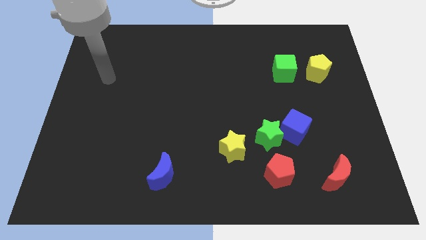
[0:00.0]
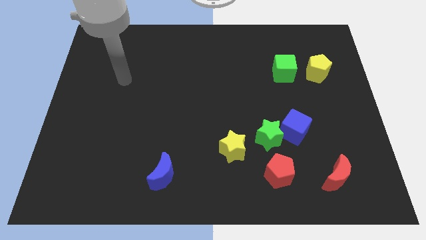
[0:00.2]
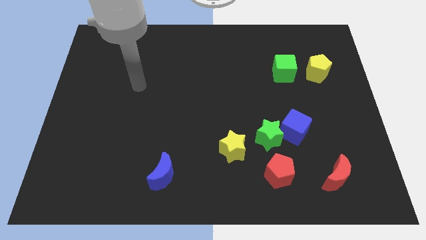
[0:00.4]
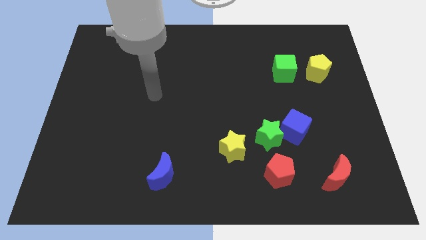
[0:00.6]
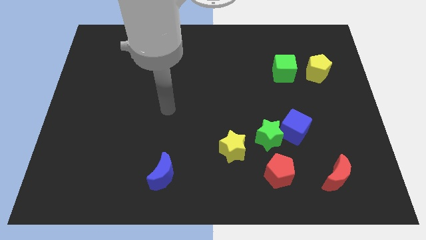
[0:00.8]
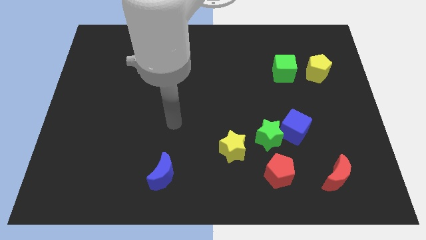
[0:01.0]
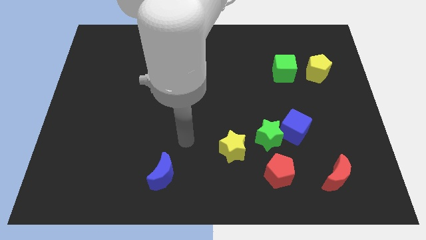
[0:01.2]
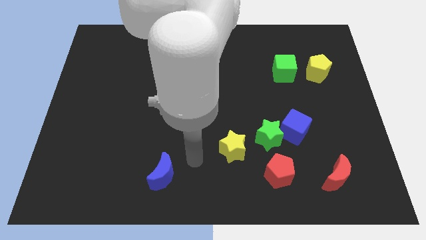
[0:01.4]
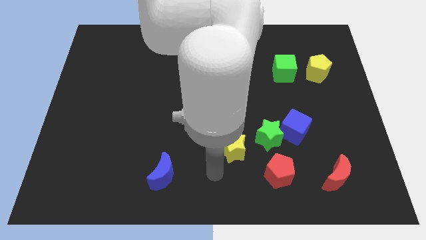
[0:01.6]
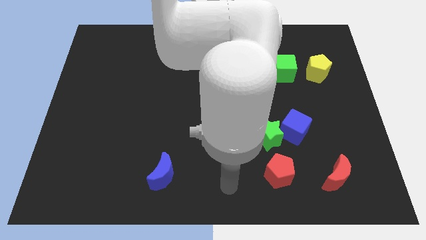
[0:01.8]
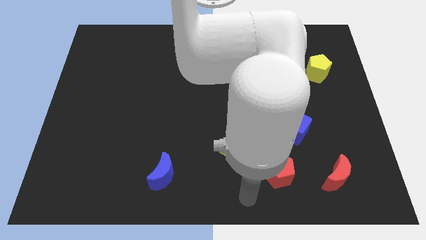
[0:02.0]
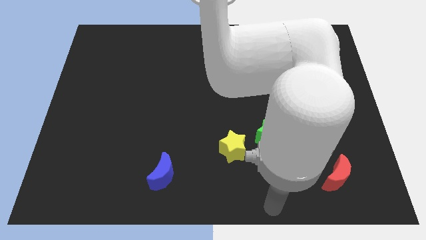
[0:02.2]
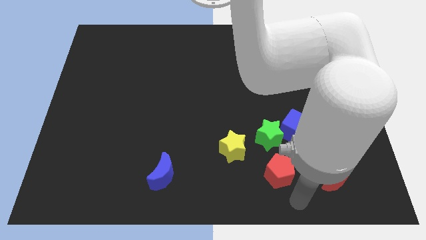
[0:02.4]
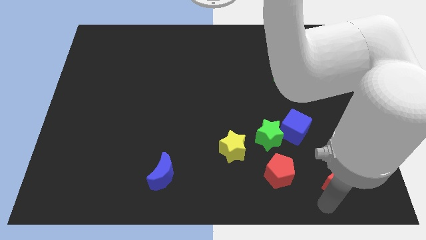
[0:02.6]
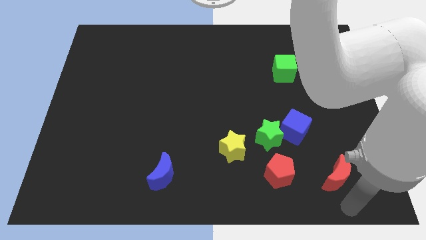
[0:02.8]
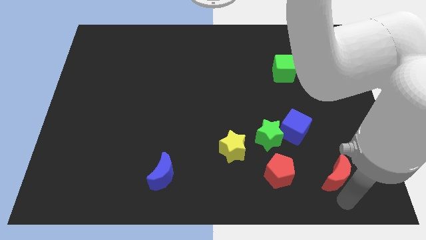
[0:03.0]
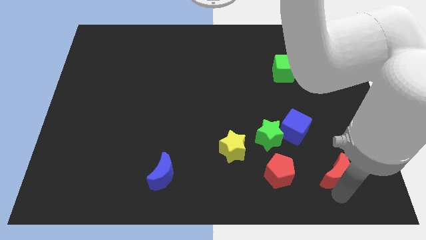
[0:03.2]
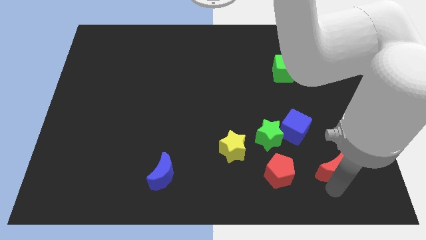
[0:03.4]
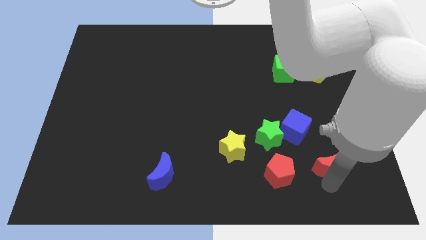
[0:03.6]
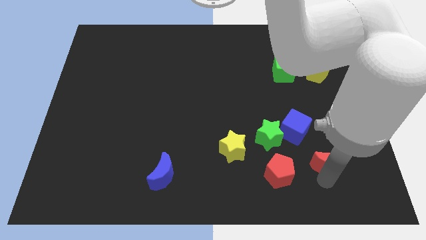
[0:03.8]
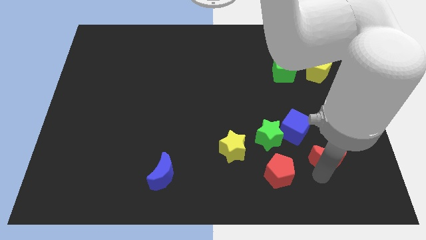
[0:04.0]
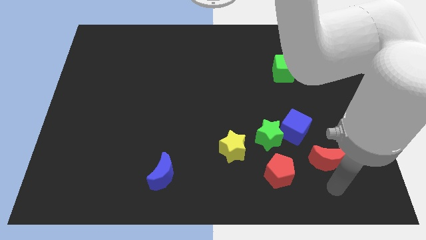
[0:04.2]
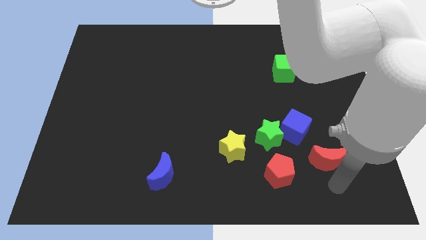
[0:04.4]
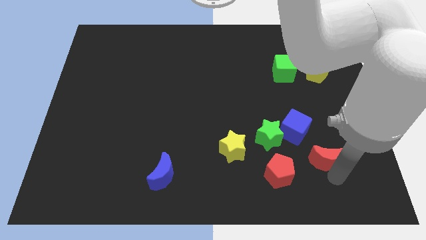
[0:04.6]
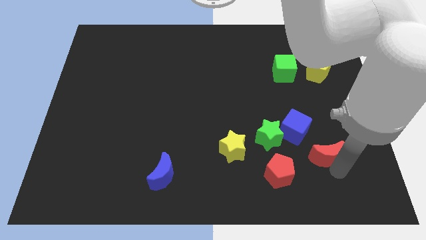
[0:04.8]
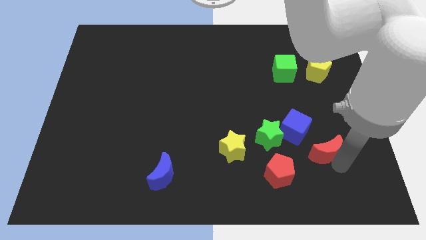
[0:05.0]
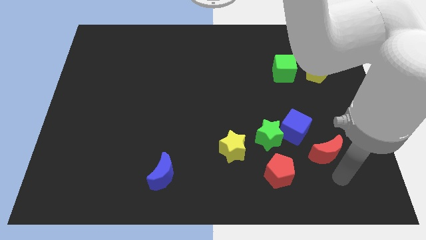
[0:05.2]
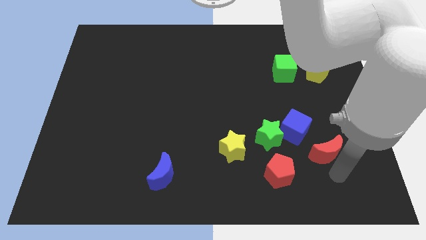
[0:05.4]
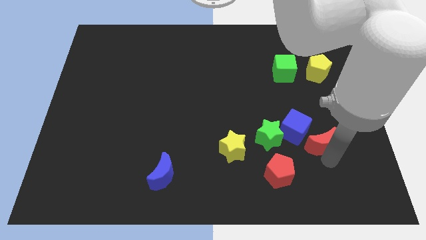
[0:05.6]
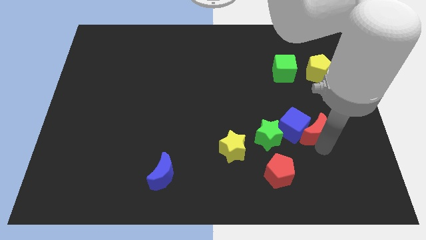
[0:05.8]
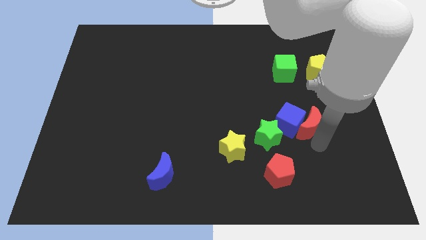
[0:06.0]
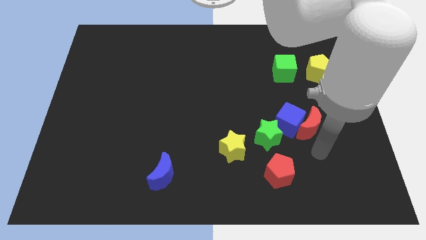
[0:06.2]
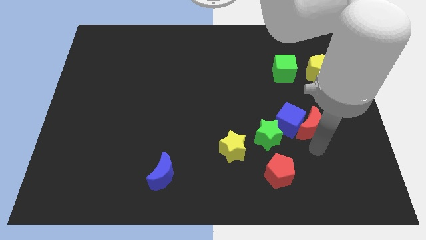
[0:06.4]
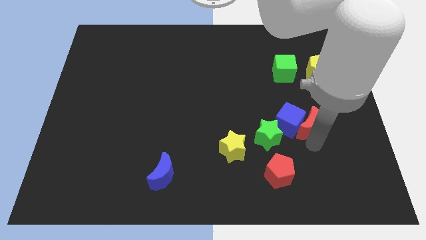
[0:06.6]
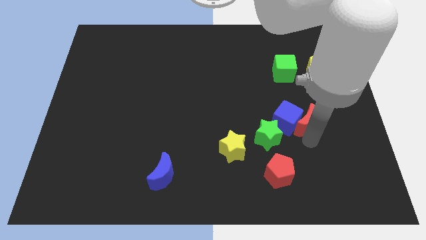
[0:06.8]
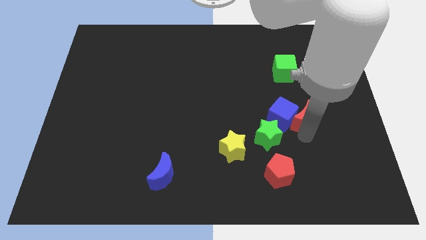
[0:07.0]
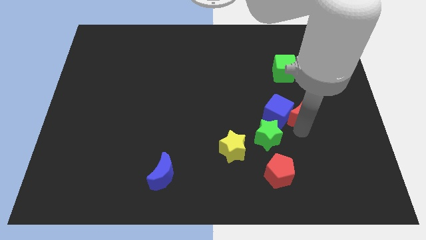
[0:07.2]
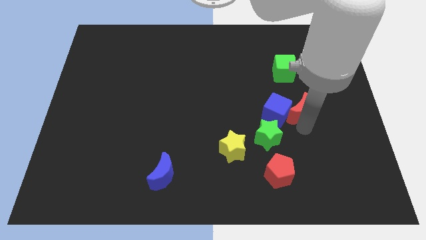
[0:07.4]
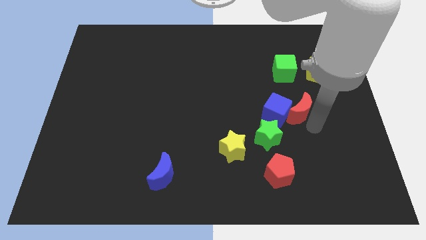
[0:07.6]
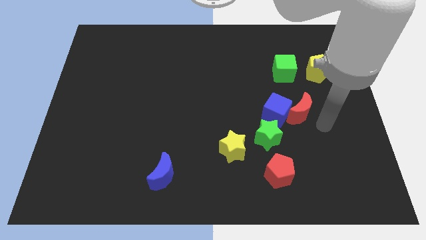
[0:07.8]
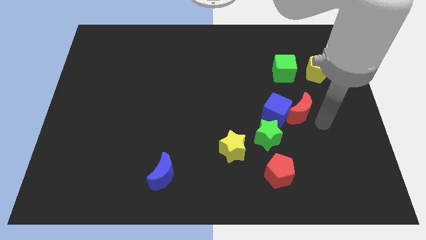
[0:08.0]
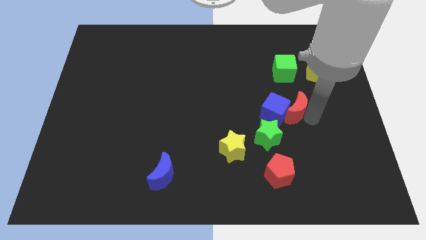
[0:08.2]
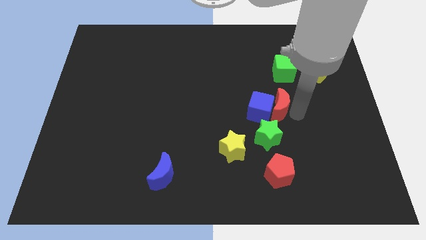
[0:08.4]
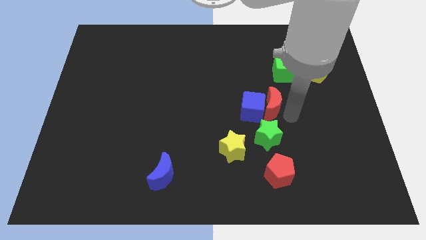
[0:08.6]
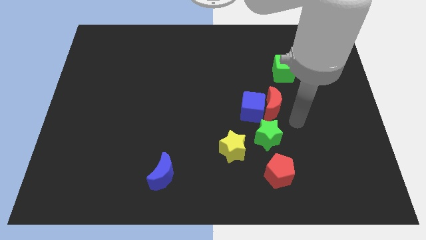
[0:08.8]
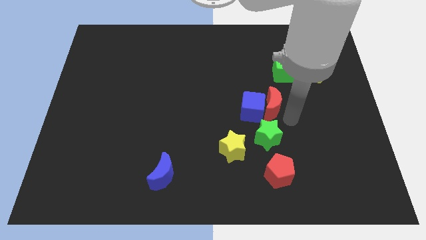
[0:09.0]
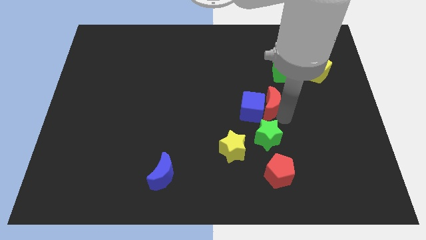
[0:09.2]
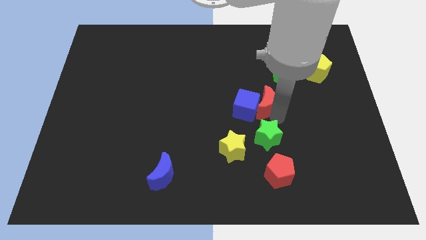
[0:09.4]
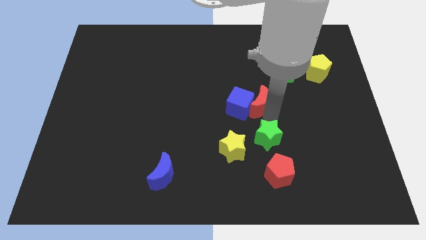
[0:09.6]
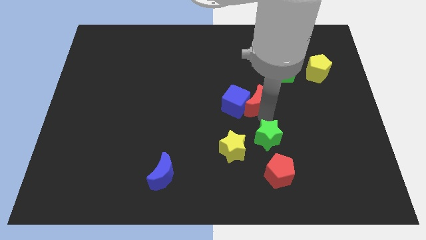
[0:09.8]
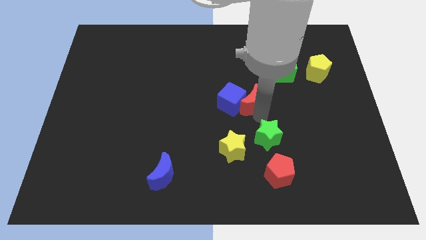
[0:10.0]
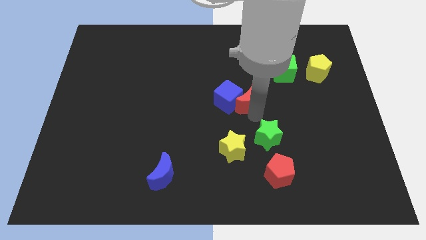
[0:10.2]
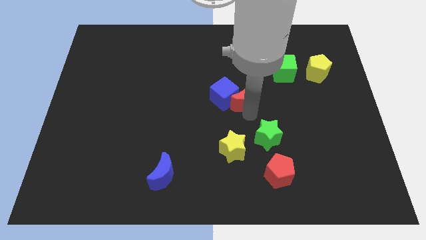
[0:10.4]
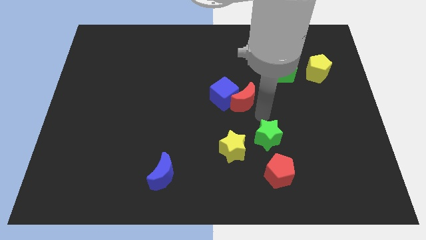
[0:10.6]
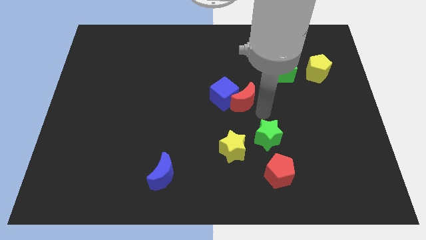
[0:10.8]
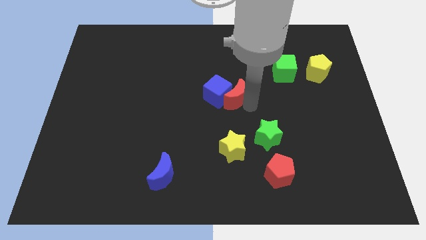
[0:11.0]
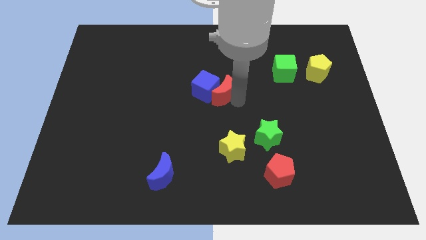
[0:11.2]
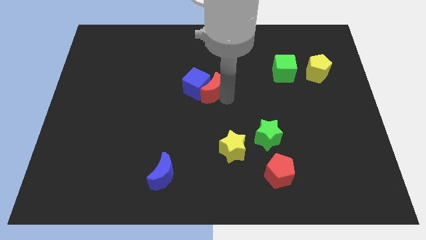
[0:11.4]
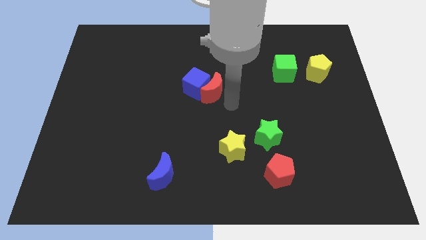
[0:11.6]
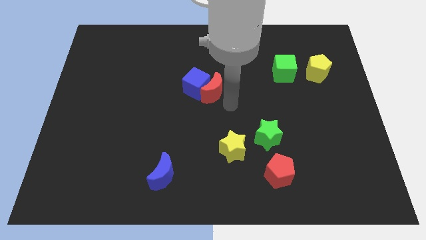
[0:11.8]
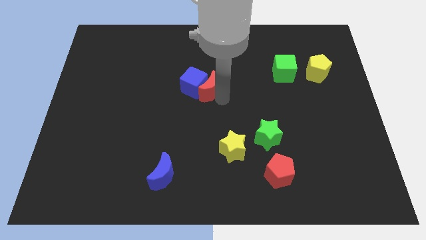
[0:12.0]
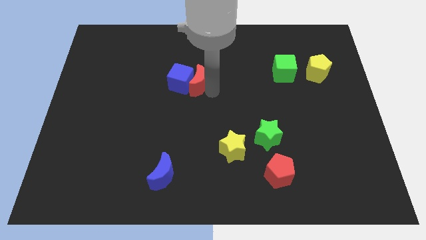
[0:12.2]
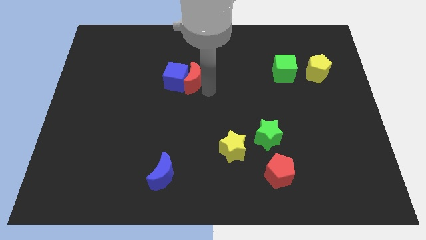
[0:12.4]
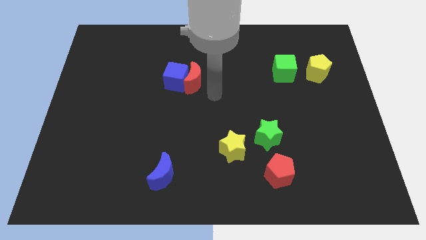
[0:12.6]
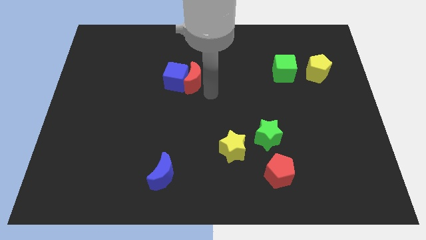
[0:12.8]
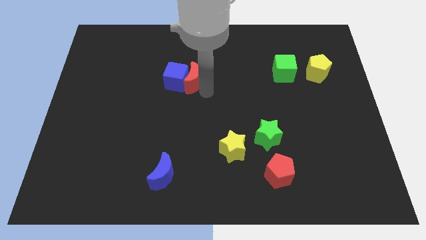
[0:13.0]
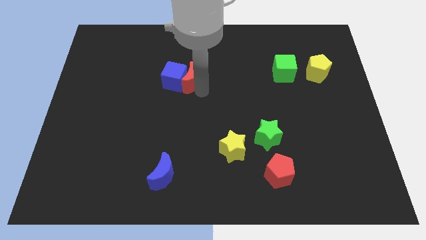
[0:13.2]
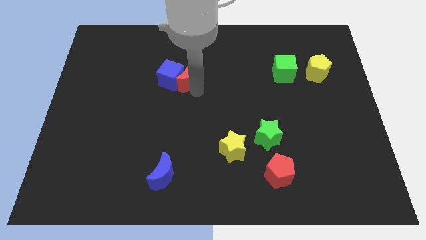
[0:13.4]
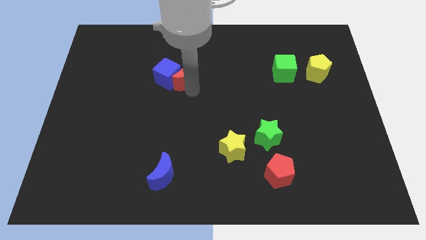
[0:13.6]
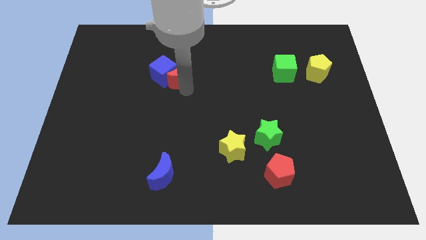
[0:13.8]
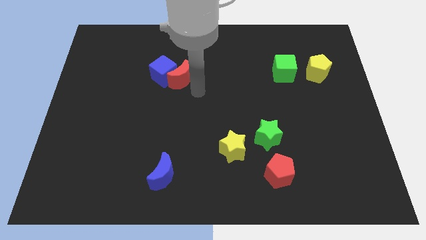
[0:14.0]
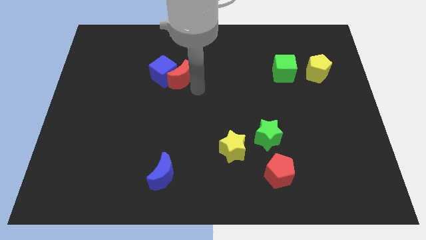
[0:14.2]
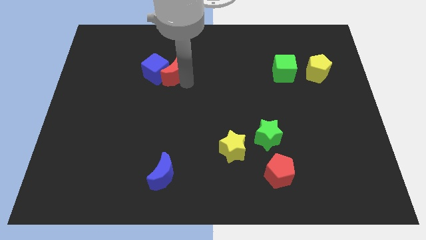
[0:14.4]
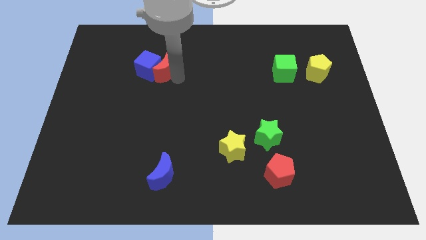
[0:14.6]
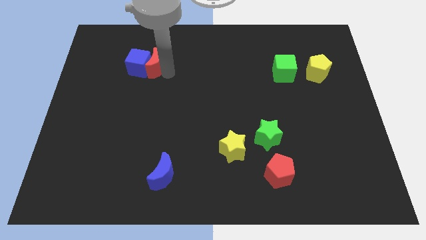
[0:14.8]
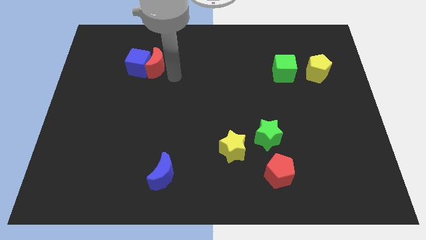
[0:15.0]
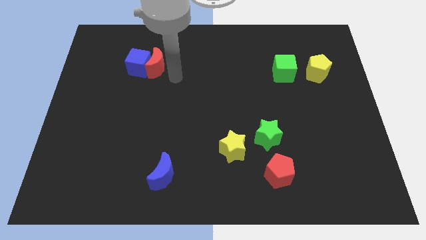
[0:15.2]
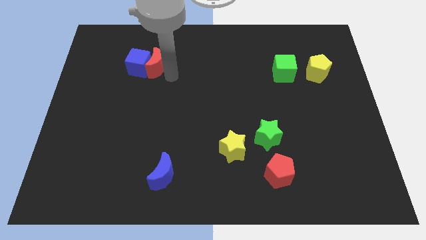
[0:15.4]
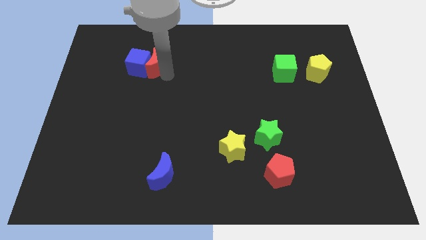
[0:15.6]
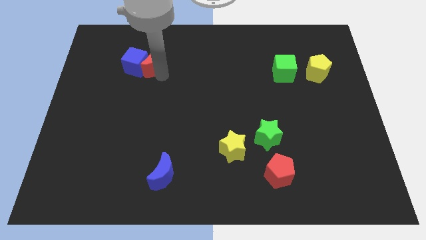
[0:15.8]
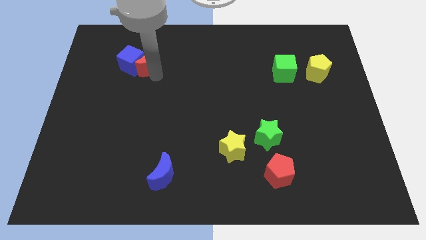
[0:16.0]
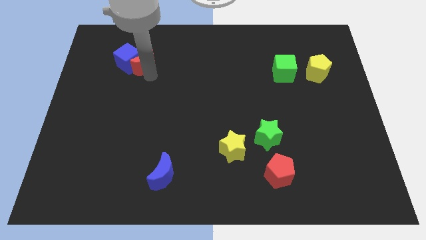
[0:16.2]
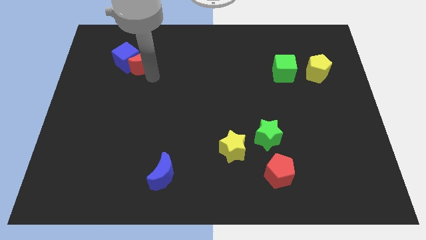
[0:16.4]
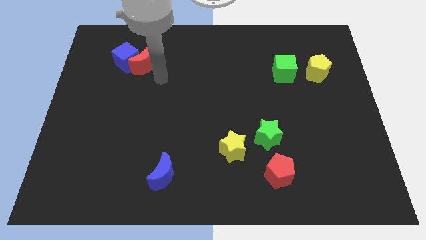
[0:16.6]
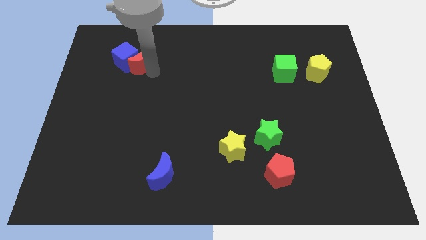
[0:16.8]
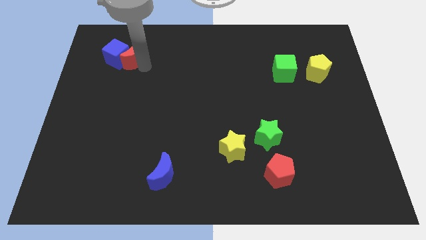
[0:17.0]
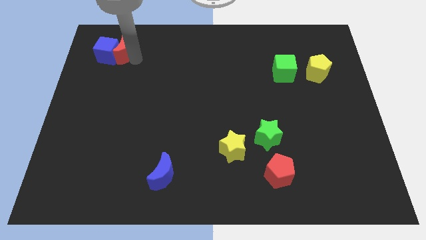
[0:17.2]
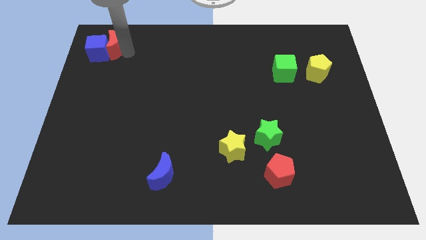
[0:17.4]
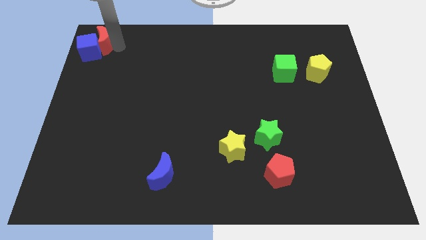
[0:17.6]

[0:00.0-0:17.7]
push the red moon to the top left corner
